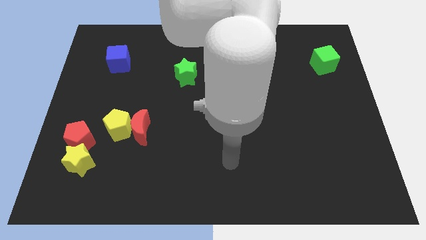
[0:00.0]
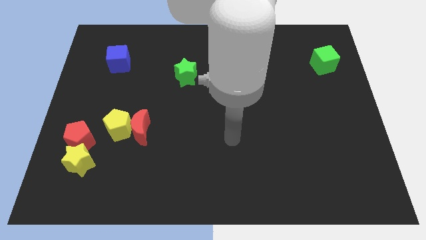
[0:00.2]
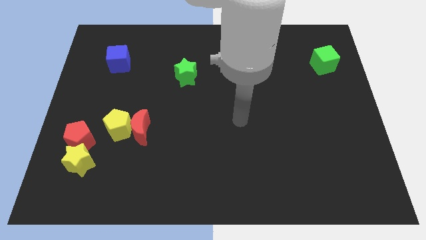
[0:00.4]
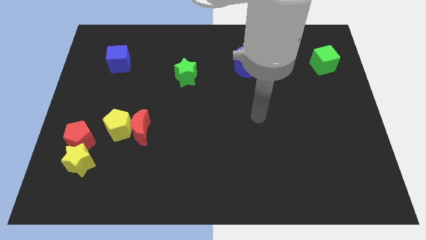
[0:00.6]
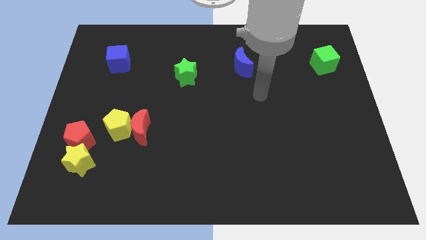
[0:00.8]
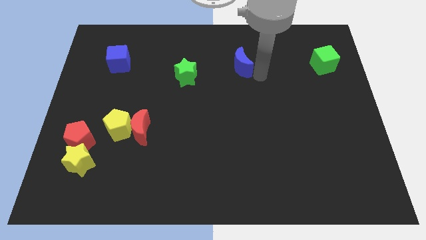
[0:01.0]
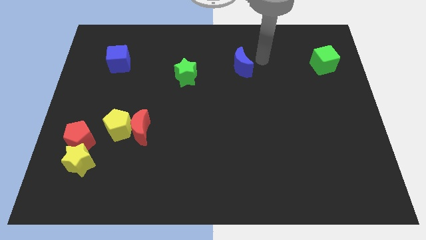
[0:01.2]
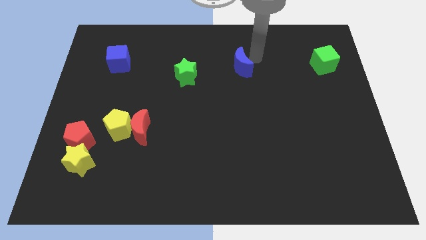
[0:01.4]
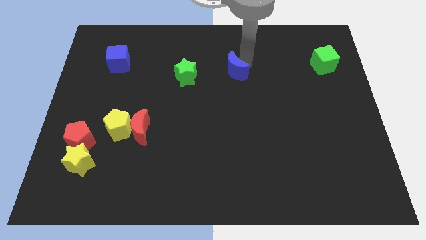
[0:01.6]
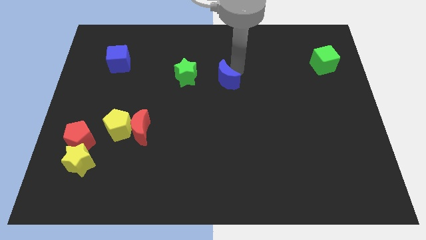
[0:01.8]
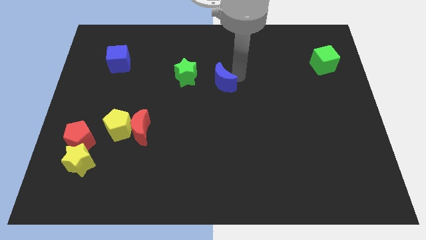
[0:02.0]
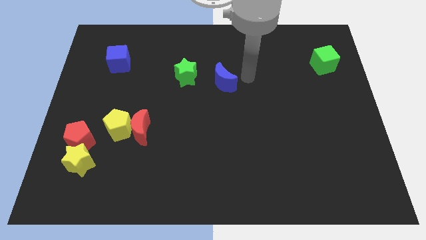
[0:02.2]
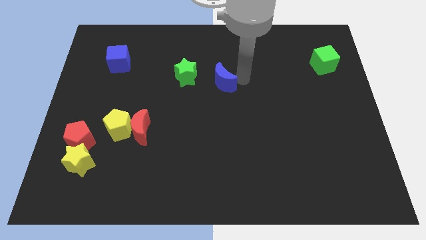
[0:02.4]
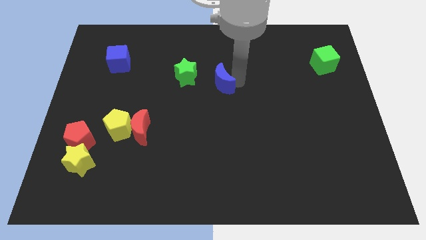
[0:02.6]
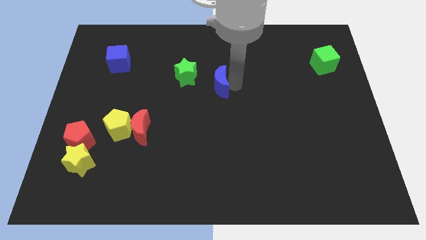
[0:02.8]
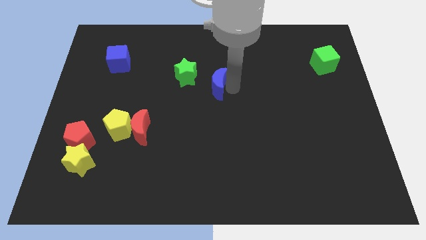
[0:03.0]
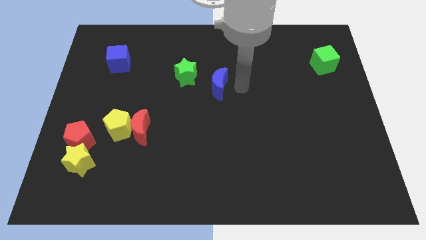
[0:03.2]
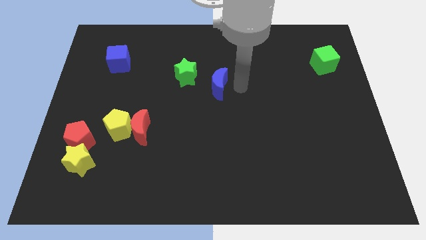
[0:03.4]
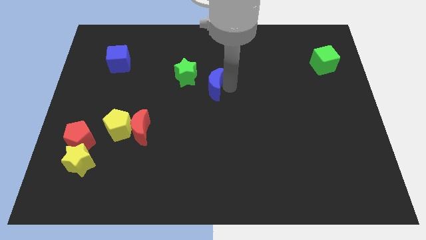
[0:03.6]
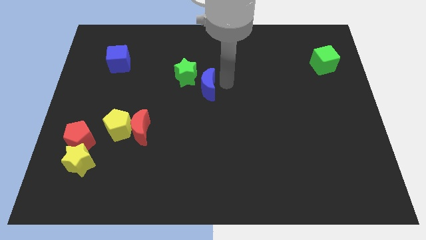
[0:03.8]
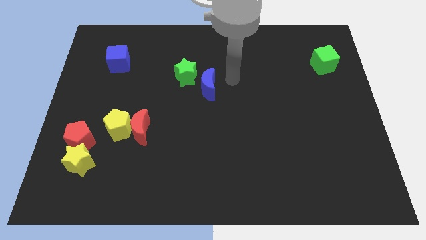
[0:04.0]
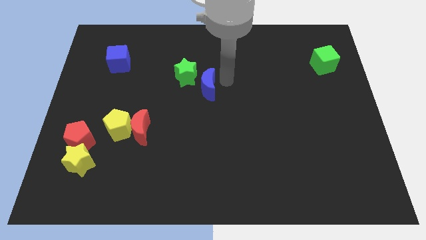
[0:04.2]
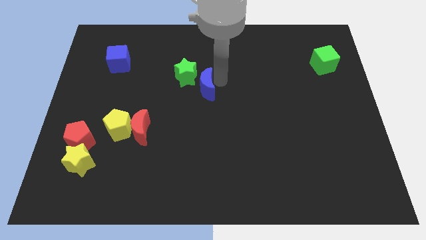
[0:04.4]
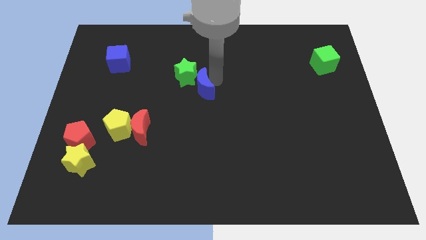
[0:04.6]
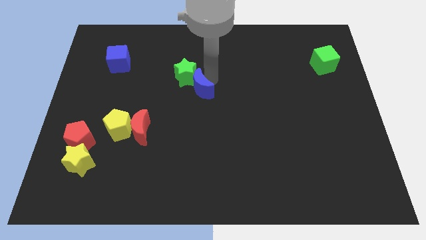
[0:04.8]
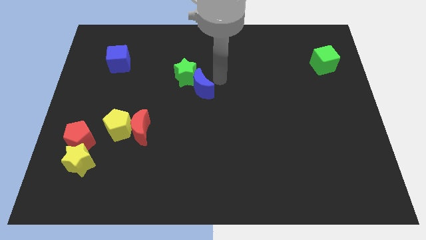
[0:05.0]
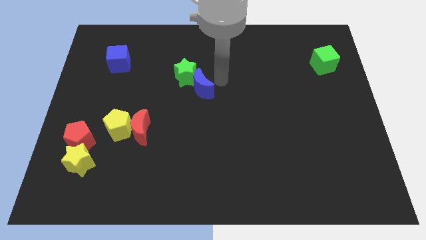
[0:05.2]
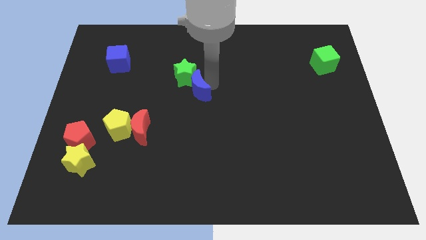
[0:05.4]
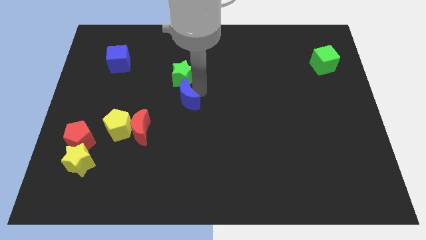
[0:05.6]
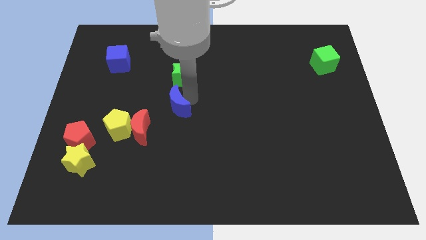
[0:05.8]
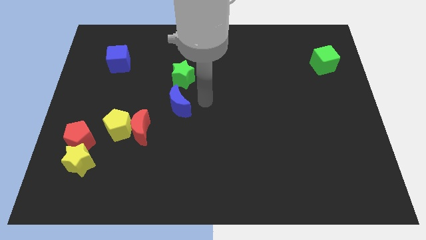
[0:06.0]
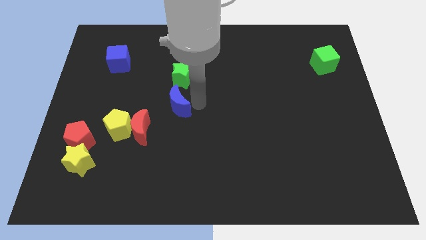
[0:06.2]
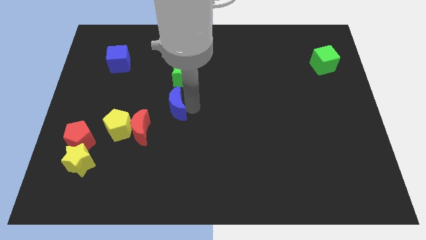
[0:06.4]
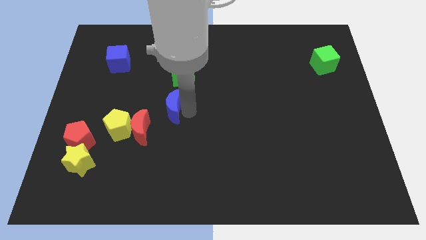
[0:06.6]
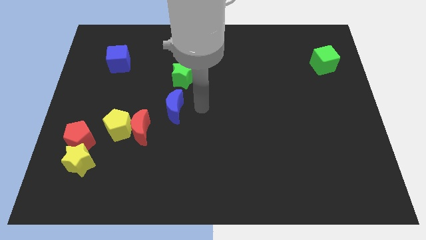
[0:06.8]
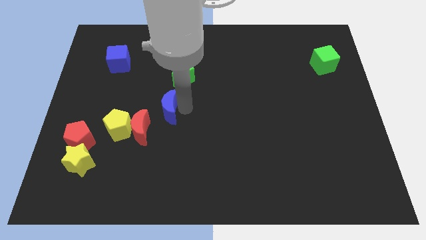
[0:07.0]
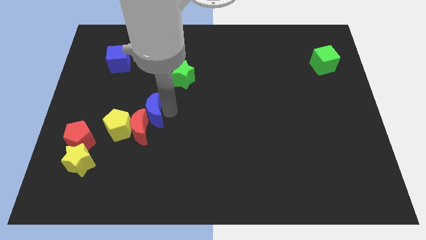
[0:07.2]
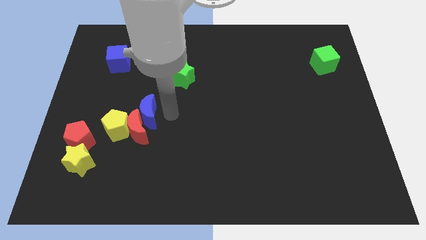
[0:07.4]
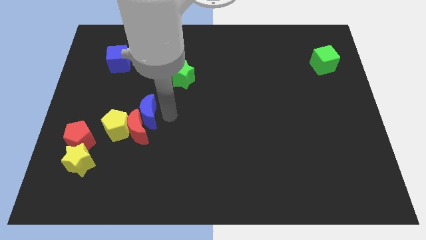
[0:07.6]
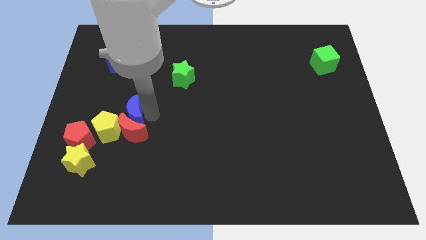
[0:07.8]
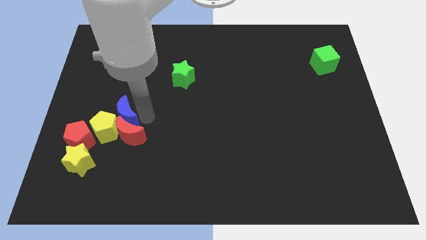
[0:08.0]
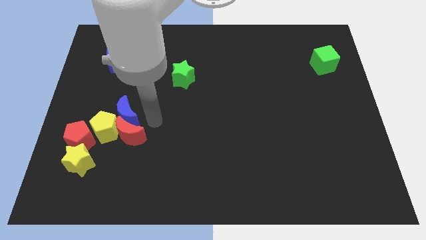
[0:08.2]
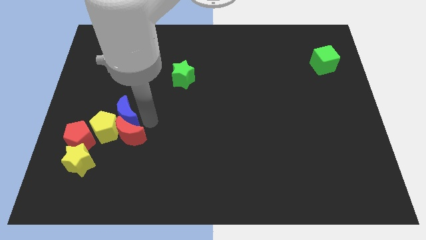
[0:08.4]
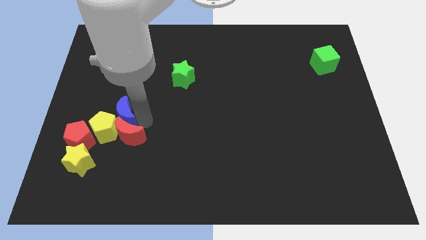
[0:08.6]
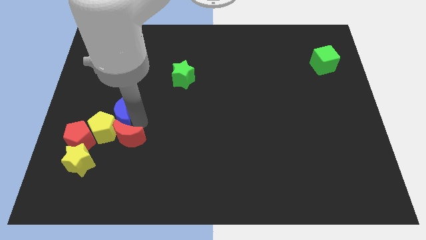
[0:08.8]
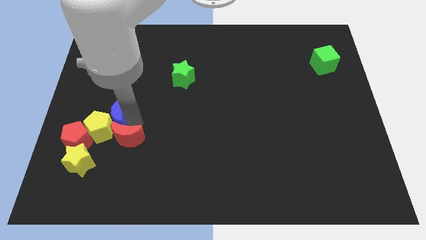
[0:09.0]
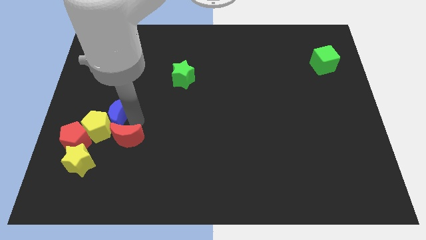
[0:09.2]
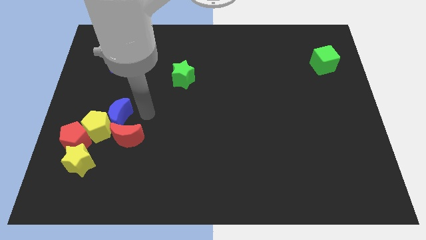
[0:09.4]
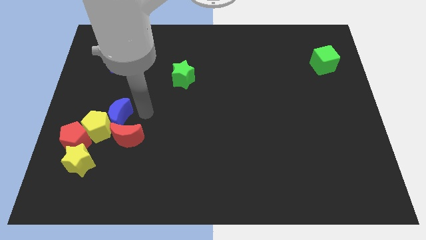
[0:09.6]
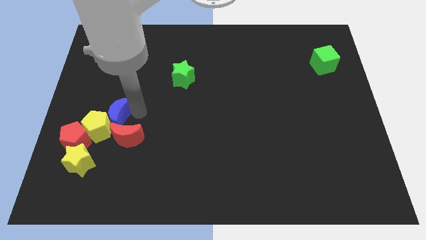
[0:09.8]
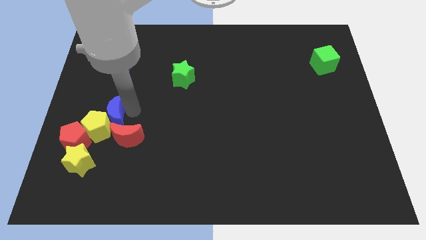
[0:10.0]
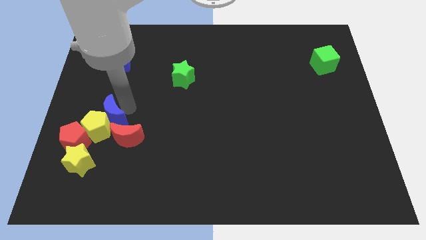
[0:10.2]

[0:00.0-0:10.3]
put the blue moon to the top of the yellow star

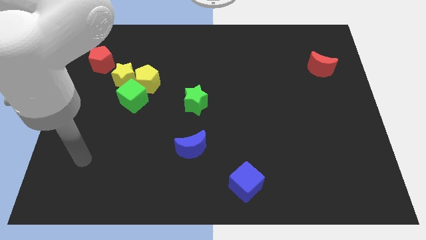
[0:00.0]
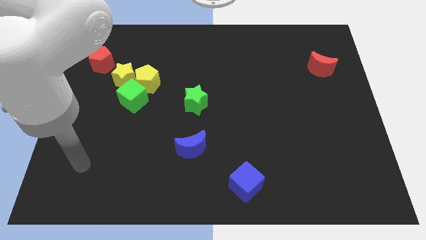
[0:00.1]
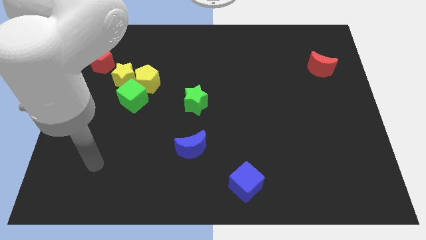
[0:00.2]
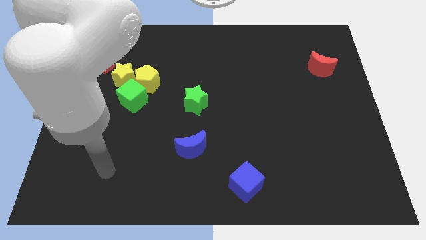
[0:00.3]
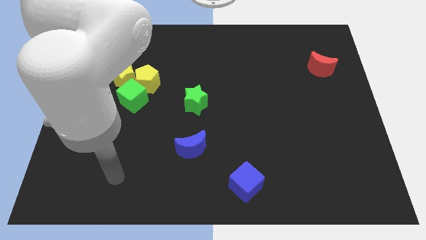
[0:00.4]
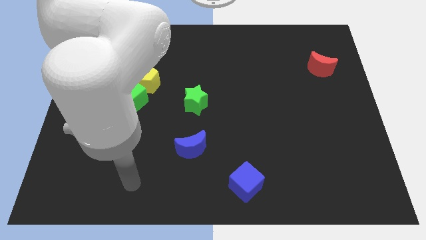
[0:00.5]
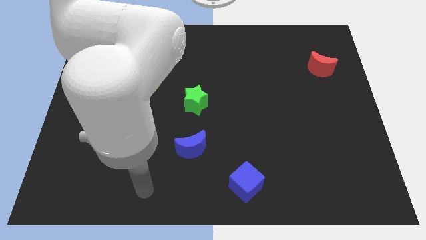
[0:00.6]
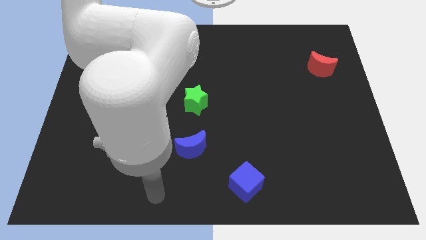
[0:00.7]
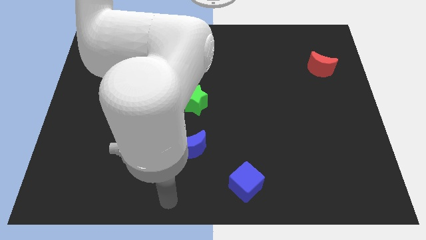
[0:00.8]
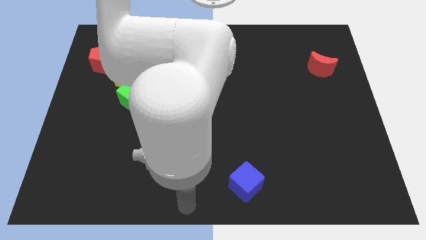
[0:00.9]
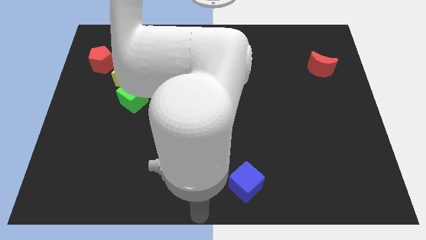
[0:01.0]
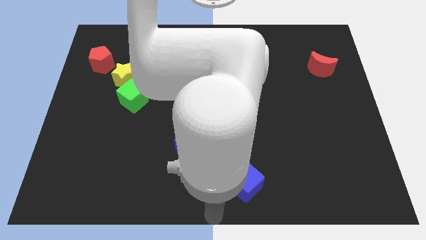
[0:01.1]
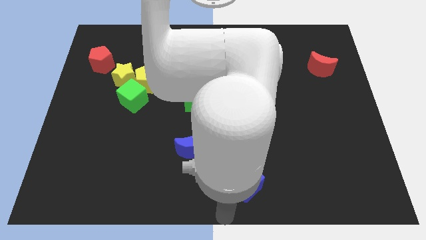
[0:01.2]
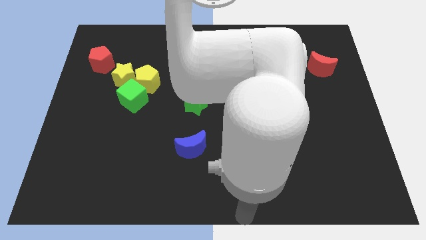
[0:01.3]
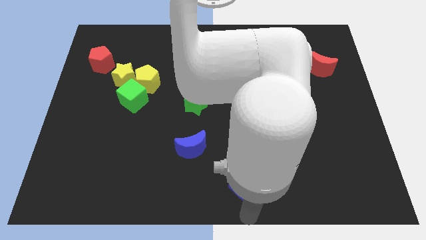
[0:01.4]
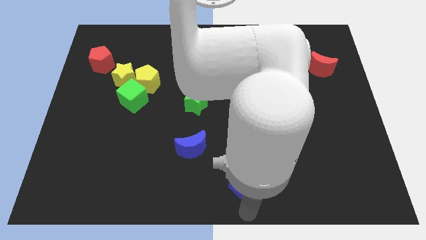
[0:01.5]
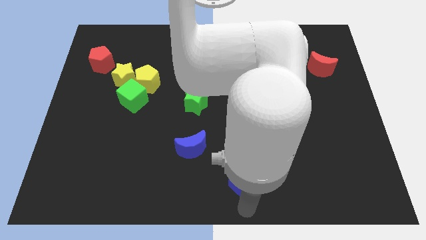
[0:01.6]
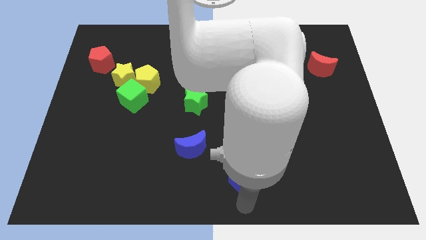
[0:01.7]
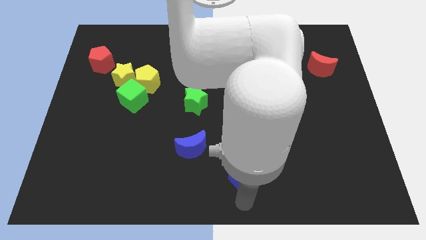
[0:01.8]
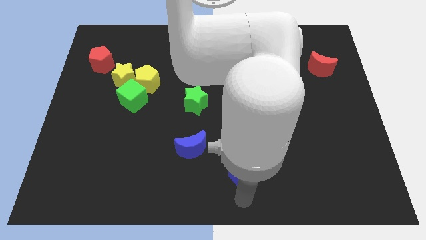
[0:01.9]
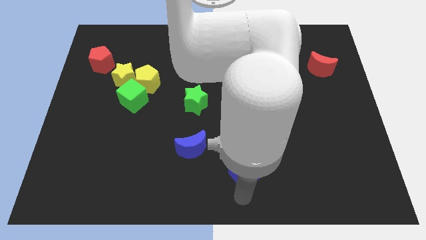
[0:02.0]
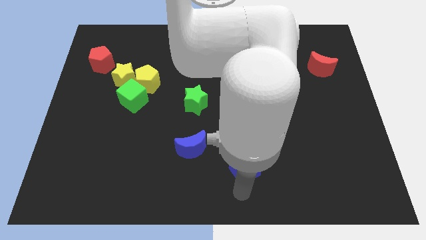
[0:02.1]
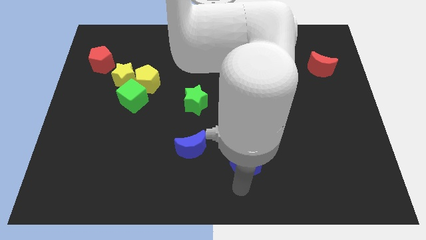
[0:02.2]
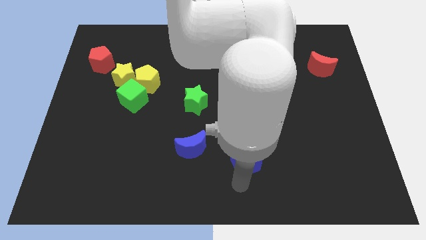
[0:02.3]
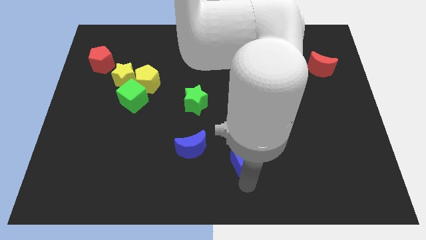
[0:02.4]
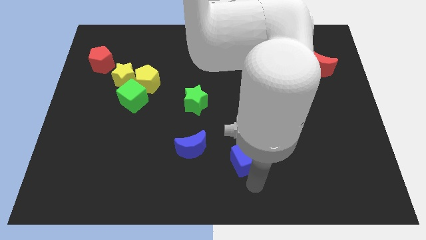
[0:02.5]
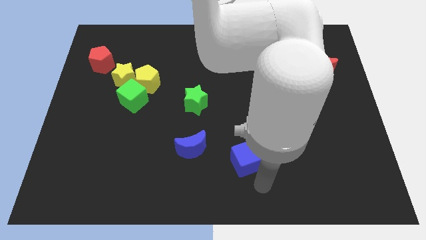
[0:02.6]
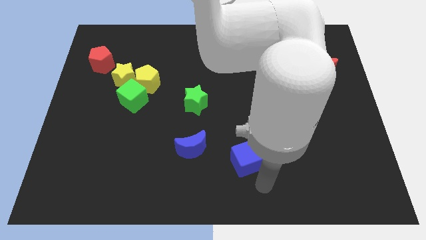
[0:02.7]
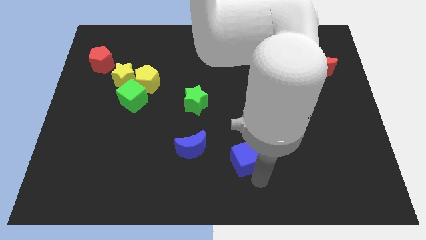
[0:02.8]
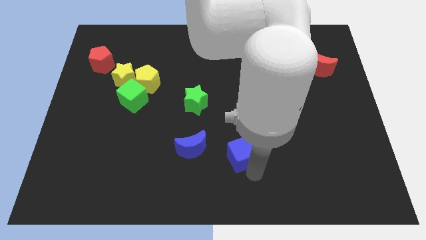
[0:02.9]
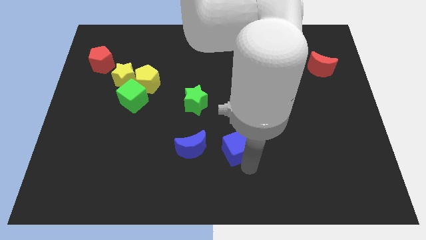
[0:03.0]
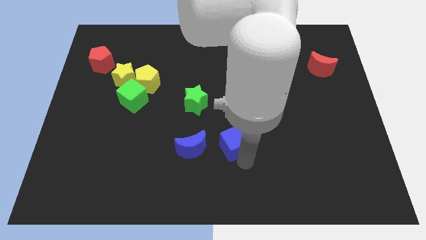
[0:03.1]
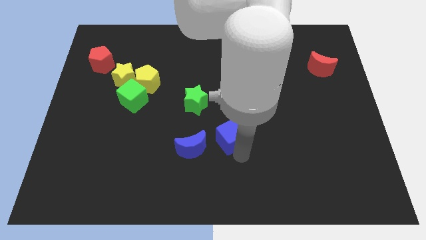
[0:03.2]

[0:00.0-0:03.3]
put the blue cube to the top right of the blue moon
